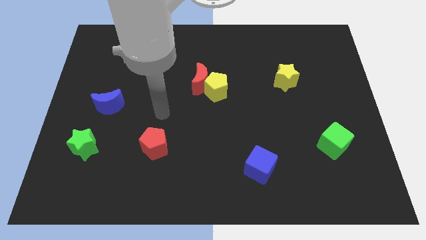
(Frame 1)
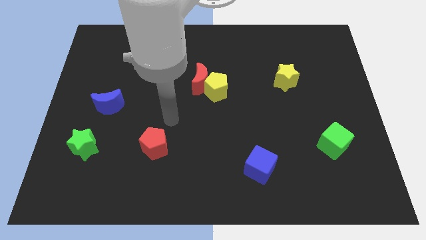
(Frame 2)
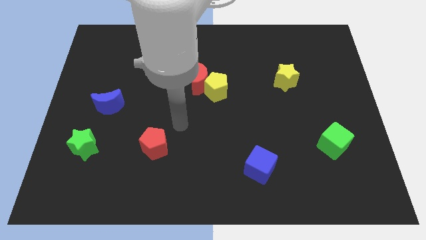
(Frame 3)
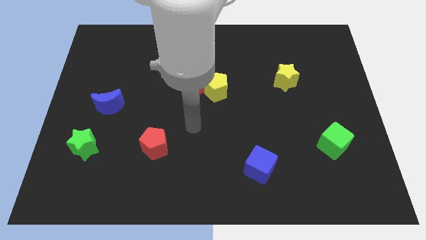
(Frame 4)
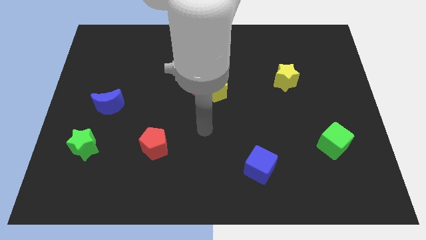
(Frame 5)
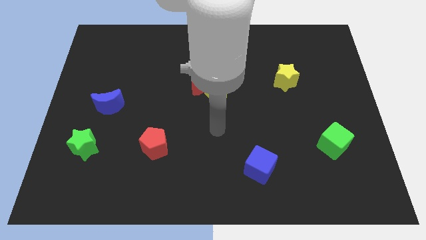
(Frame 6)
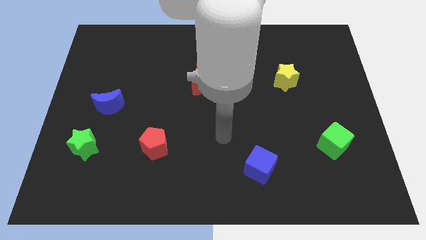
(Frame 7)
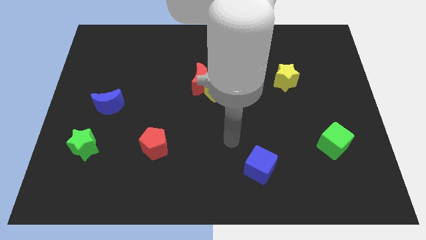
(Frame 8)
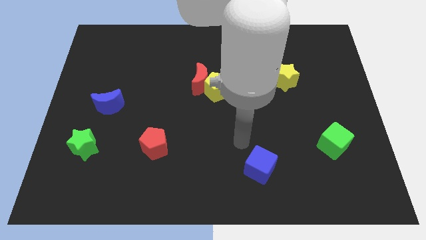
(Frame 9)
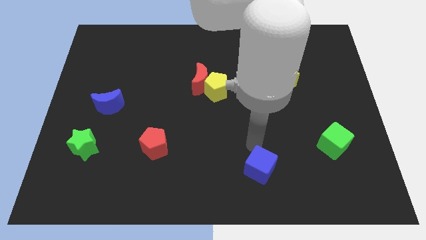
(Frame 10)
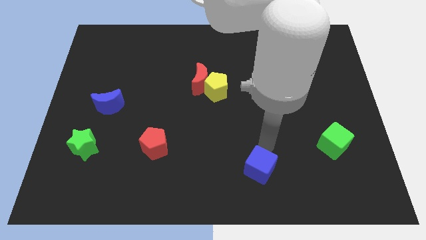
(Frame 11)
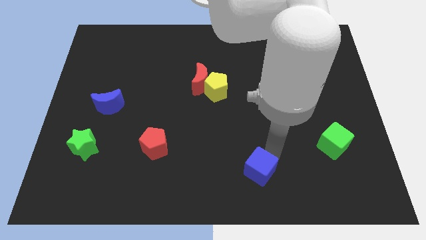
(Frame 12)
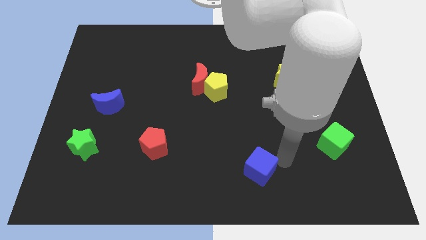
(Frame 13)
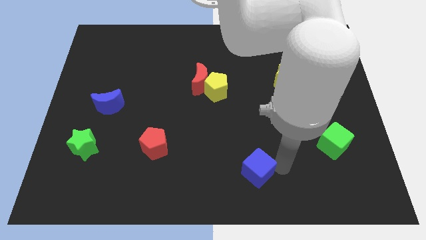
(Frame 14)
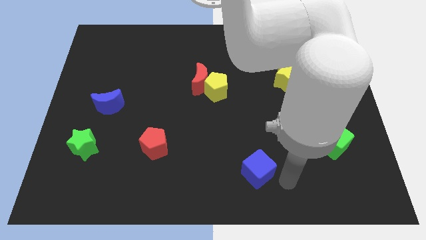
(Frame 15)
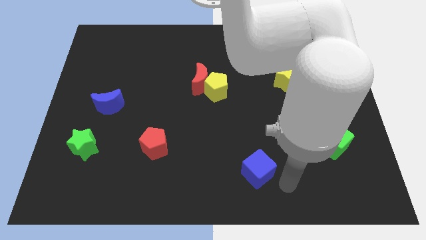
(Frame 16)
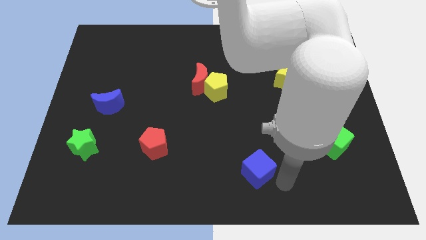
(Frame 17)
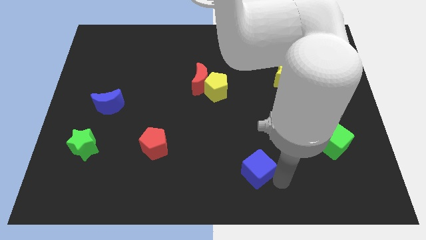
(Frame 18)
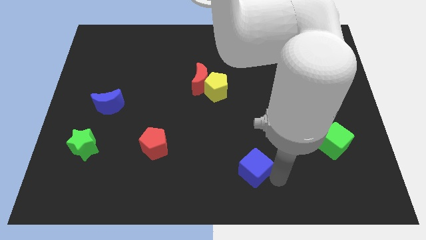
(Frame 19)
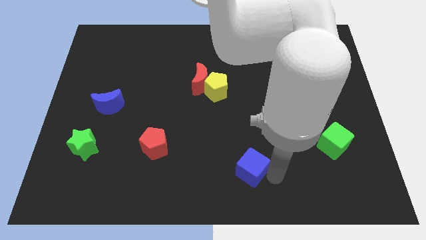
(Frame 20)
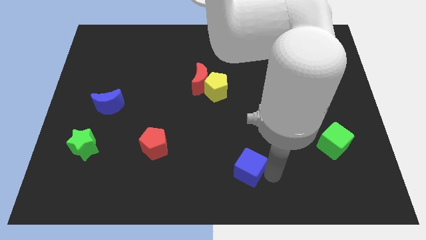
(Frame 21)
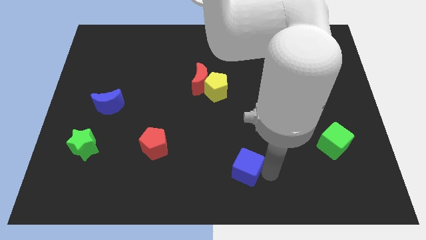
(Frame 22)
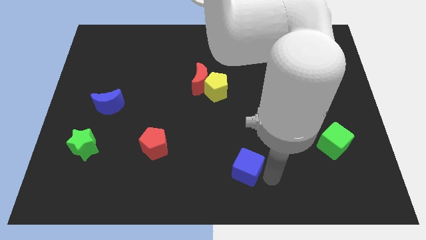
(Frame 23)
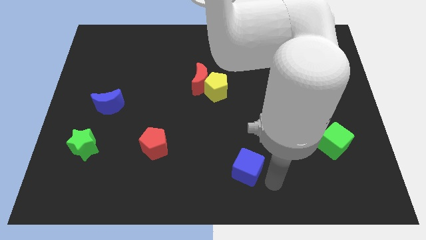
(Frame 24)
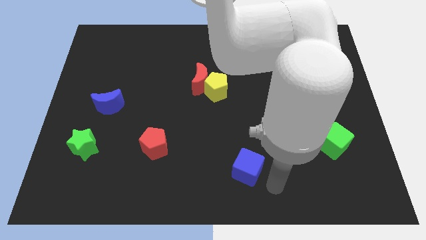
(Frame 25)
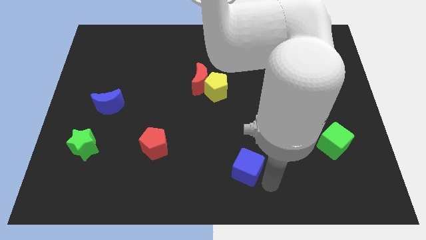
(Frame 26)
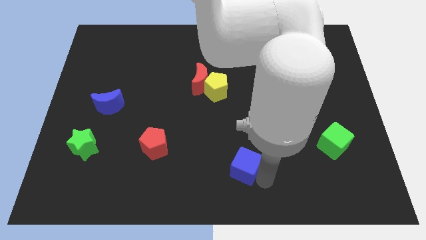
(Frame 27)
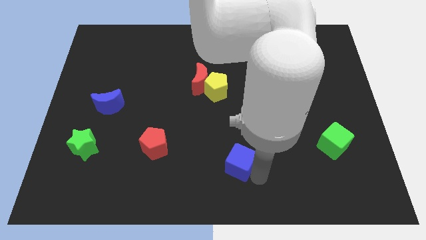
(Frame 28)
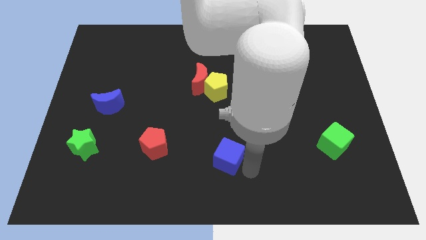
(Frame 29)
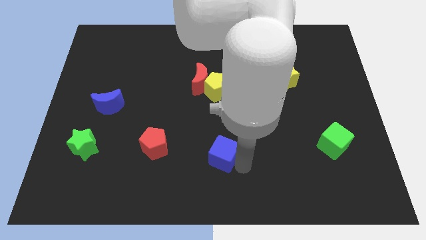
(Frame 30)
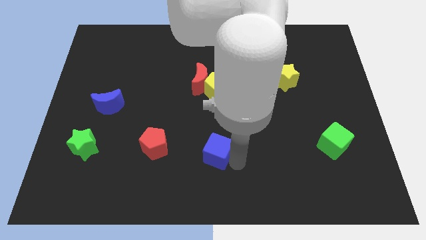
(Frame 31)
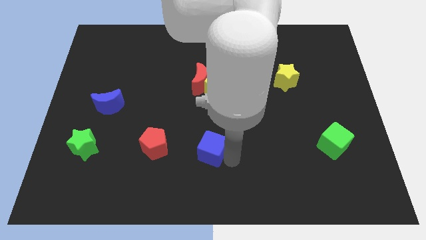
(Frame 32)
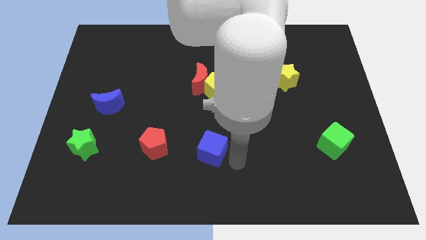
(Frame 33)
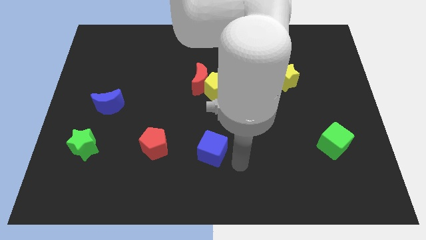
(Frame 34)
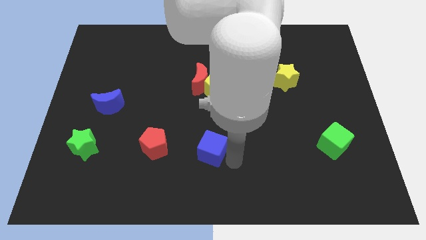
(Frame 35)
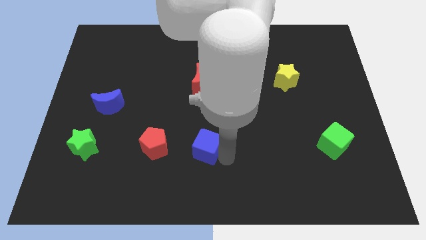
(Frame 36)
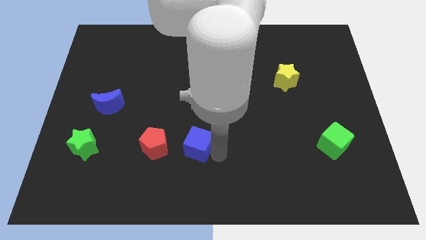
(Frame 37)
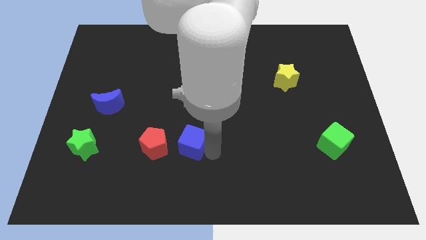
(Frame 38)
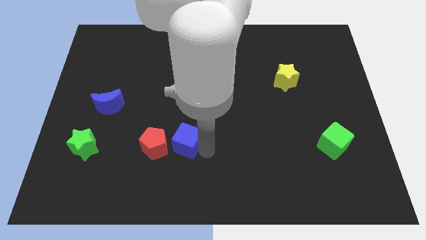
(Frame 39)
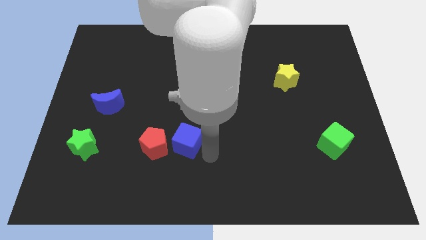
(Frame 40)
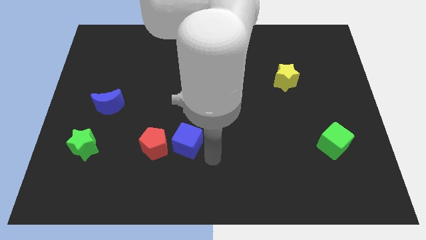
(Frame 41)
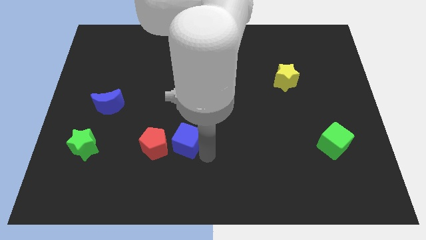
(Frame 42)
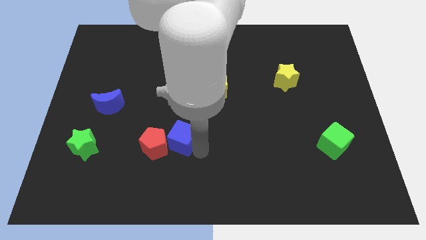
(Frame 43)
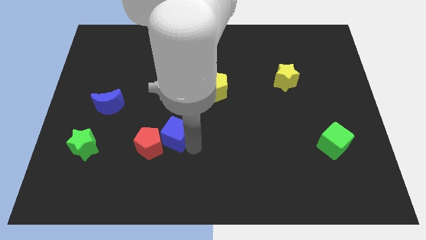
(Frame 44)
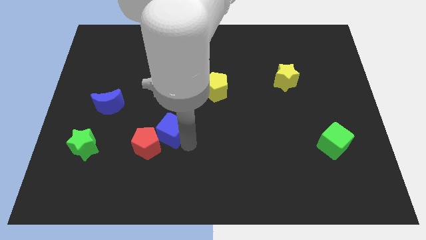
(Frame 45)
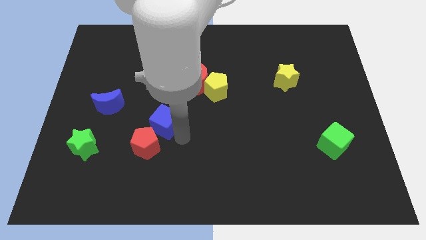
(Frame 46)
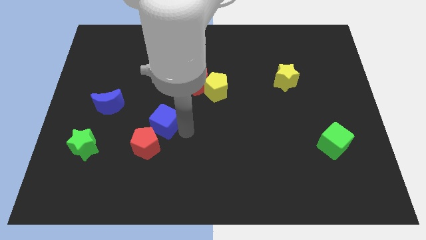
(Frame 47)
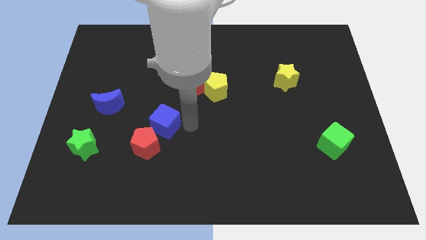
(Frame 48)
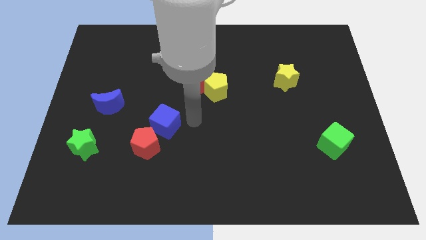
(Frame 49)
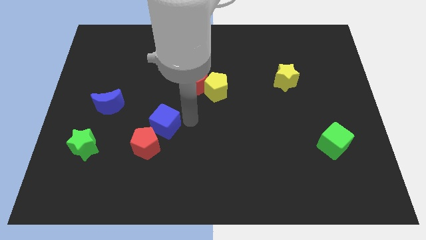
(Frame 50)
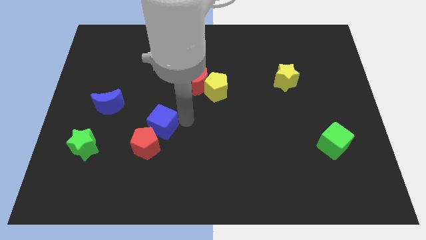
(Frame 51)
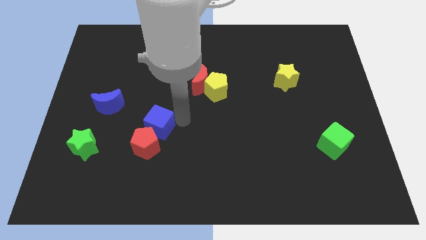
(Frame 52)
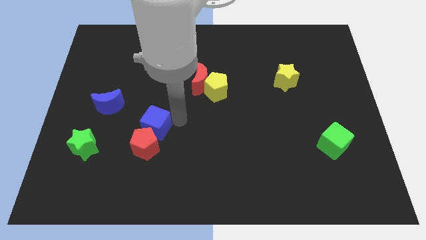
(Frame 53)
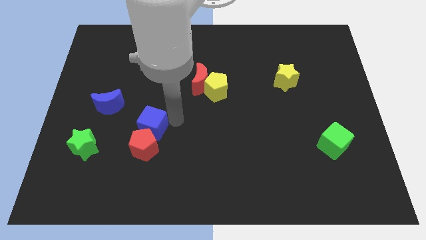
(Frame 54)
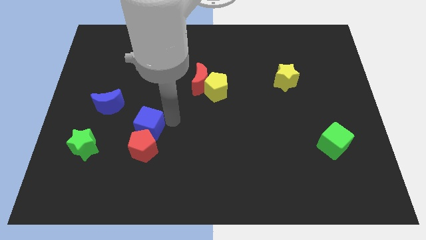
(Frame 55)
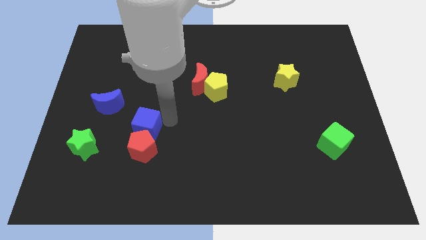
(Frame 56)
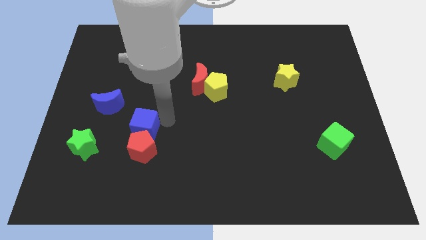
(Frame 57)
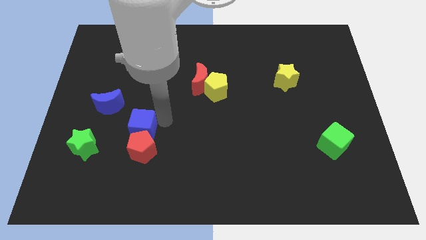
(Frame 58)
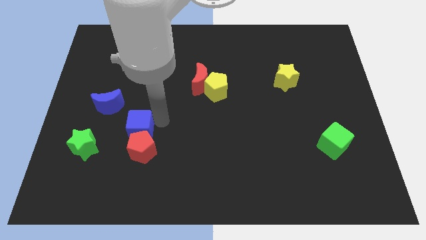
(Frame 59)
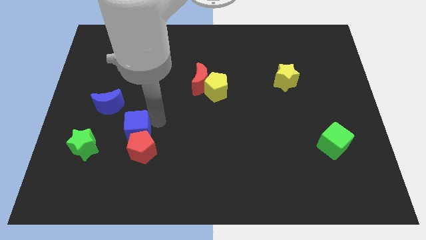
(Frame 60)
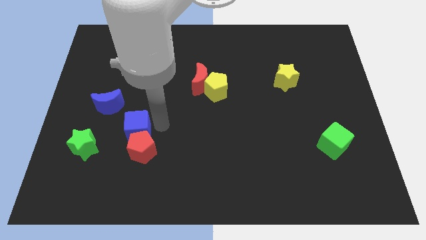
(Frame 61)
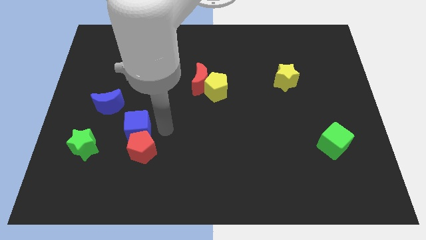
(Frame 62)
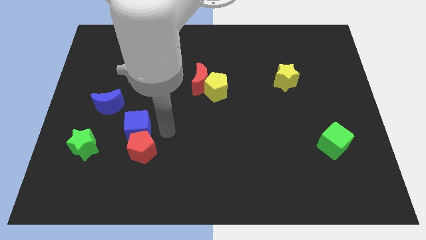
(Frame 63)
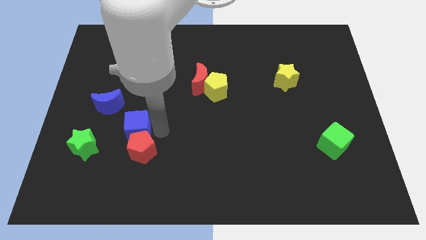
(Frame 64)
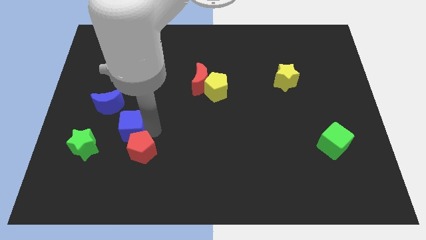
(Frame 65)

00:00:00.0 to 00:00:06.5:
move the blue cube to the top right of the green star

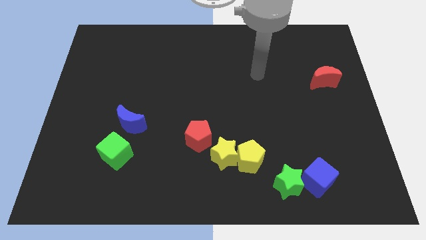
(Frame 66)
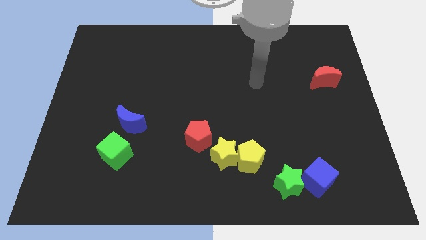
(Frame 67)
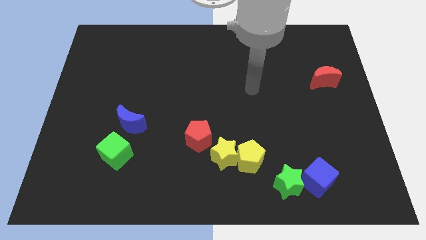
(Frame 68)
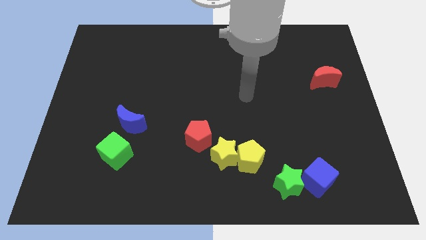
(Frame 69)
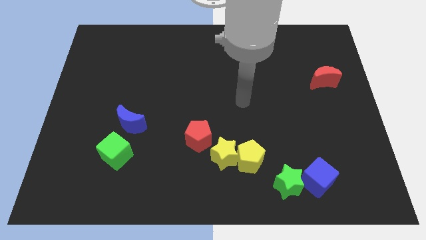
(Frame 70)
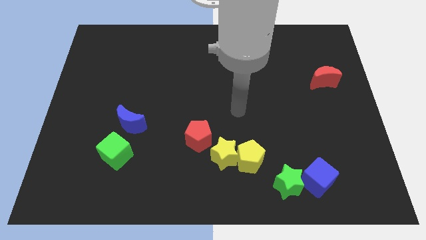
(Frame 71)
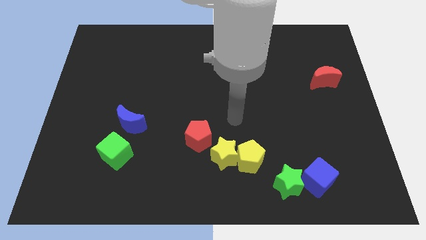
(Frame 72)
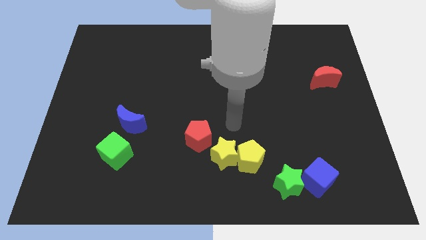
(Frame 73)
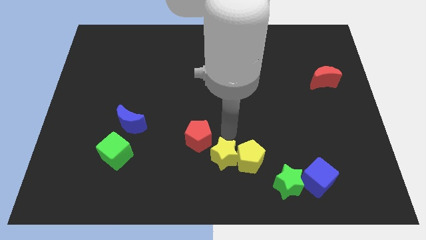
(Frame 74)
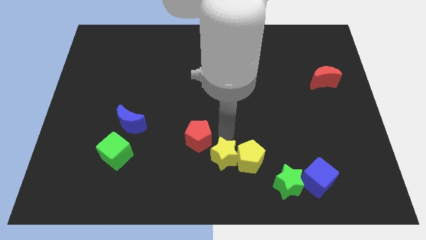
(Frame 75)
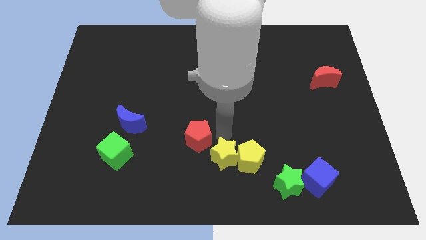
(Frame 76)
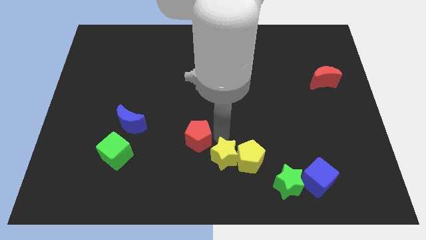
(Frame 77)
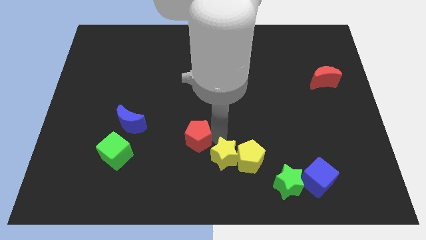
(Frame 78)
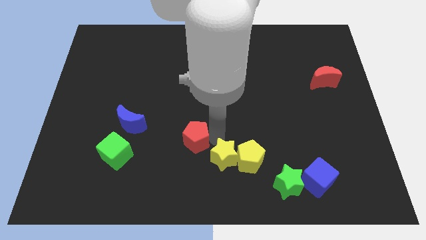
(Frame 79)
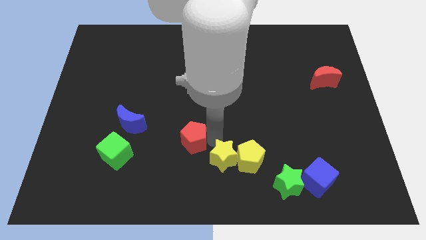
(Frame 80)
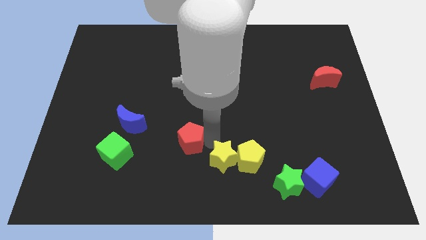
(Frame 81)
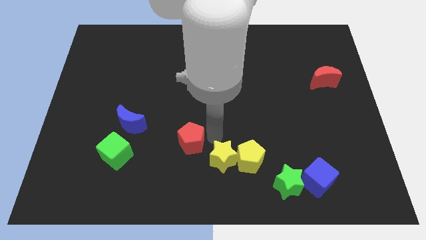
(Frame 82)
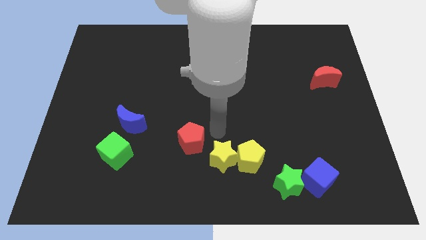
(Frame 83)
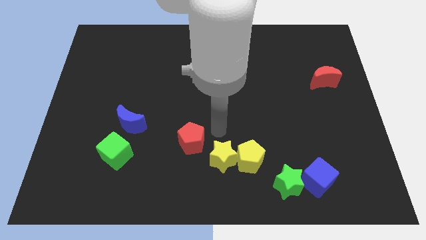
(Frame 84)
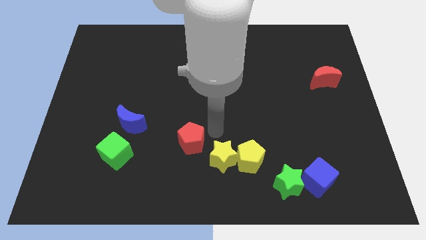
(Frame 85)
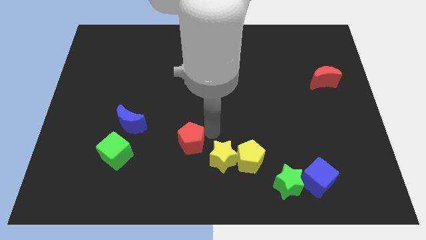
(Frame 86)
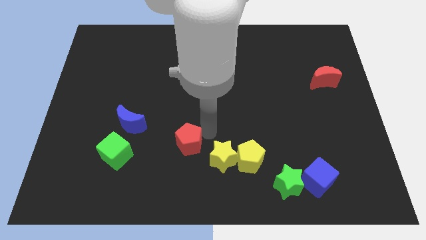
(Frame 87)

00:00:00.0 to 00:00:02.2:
push the red pentagon to the right of the green cube
